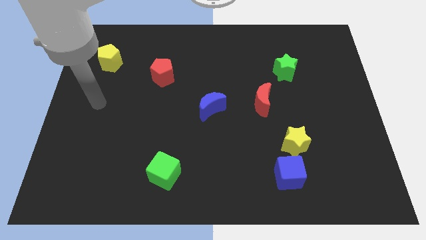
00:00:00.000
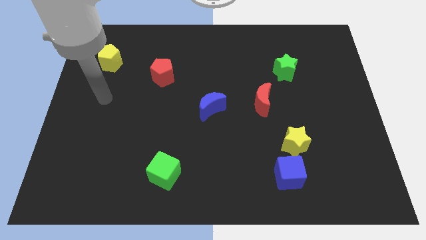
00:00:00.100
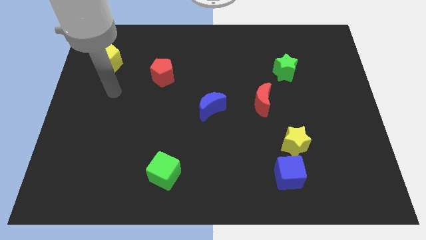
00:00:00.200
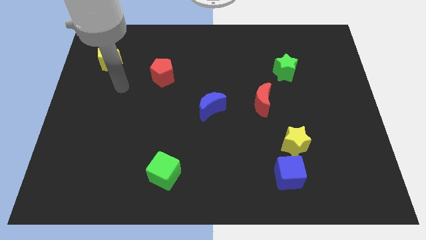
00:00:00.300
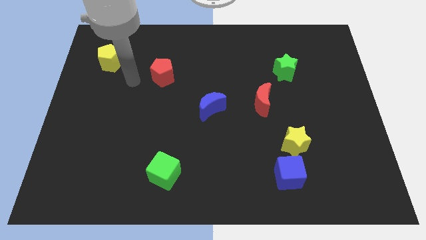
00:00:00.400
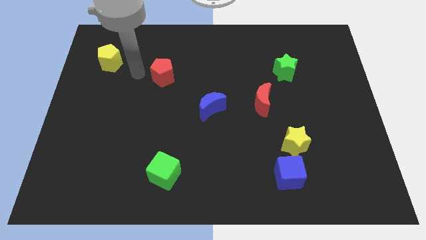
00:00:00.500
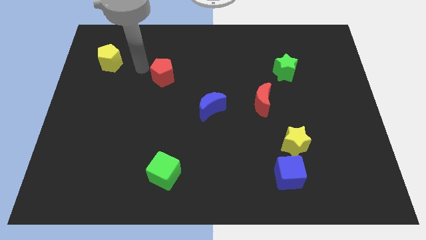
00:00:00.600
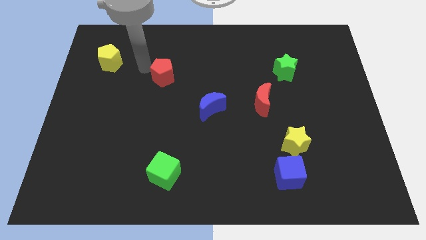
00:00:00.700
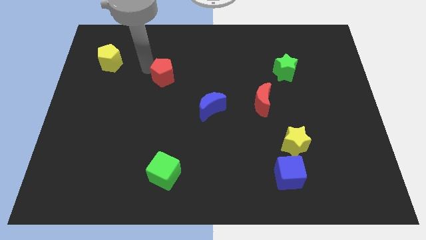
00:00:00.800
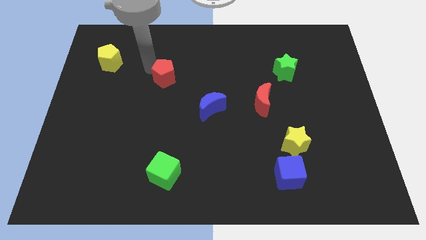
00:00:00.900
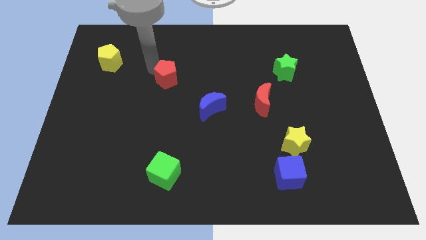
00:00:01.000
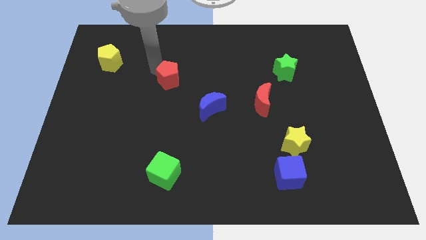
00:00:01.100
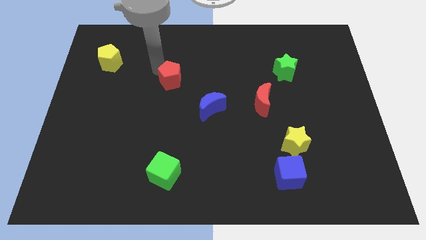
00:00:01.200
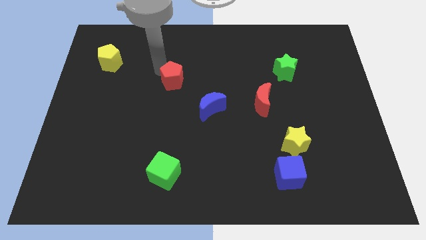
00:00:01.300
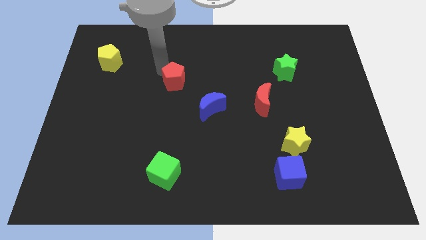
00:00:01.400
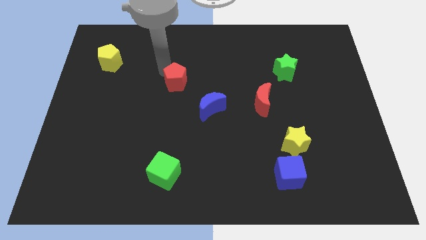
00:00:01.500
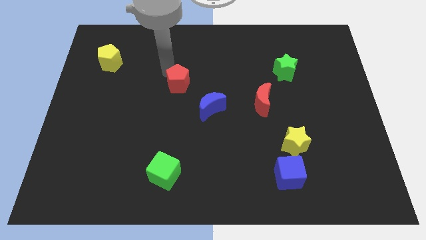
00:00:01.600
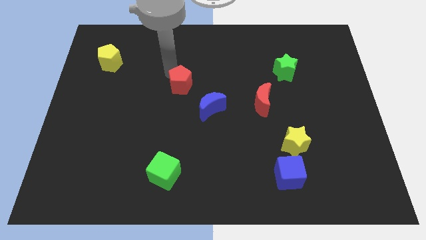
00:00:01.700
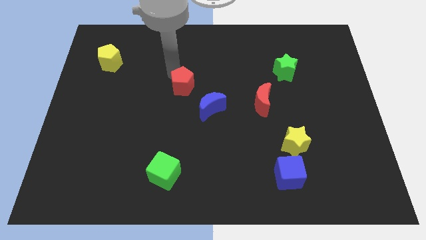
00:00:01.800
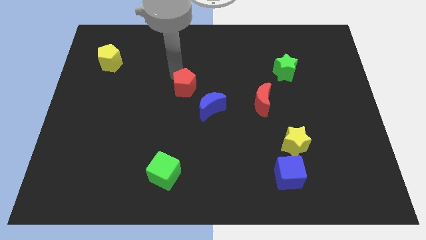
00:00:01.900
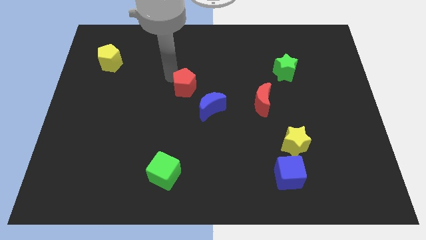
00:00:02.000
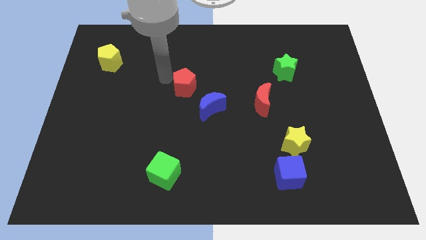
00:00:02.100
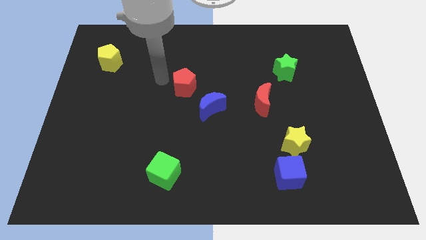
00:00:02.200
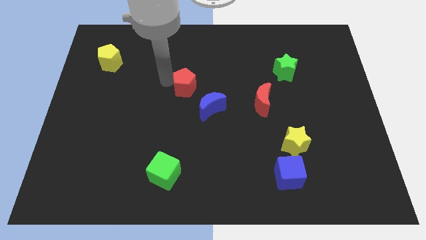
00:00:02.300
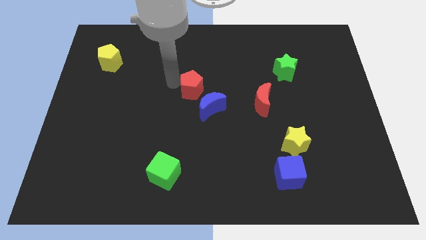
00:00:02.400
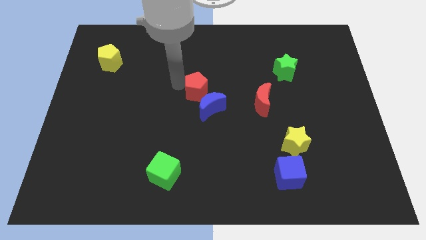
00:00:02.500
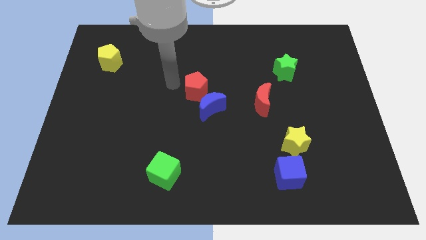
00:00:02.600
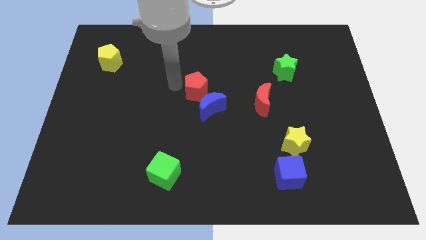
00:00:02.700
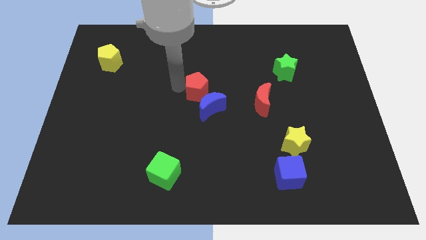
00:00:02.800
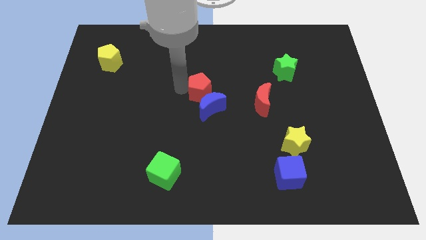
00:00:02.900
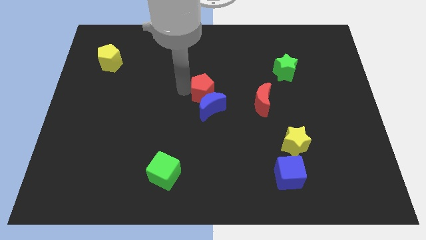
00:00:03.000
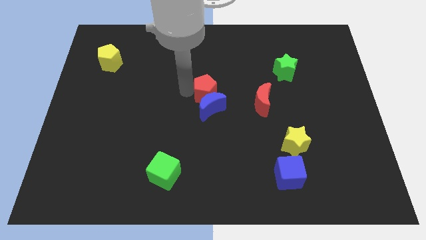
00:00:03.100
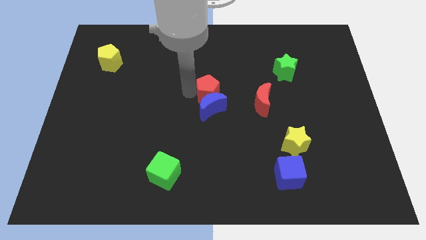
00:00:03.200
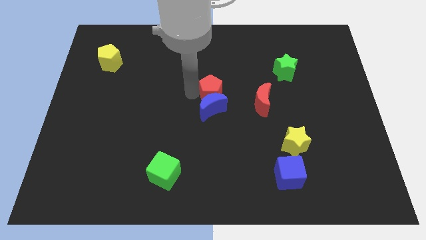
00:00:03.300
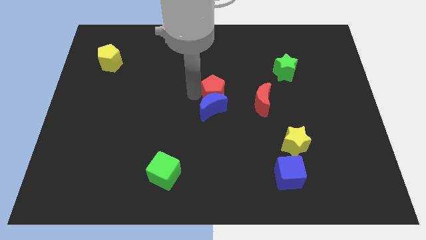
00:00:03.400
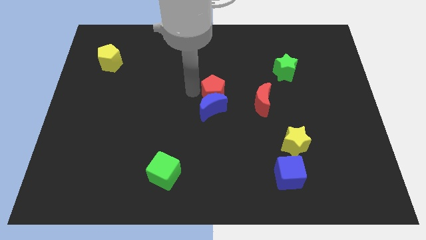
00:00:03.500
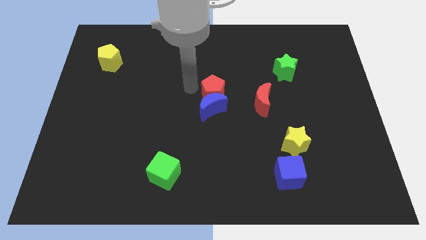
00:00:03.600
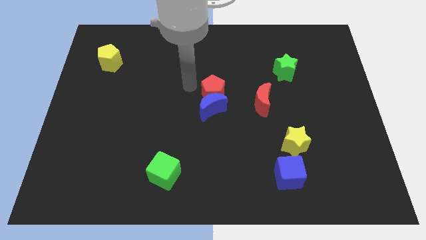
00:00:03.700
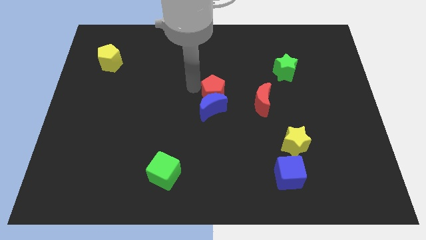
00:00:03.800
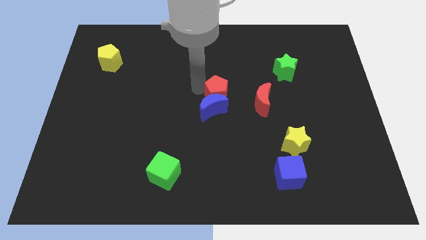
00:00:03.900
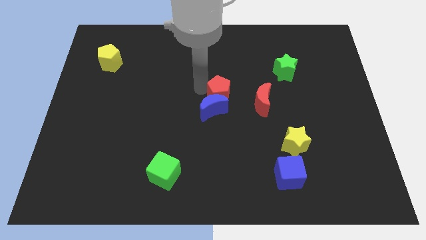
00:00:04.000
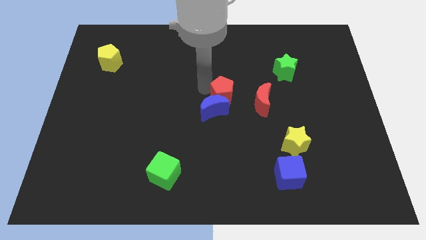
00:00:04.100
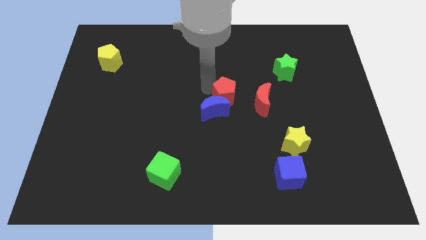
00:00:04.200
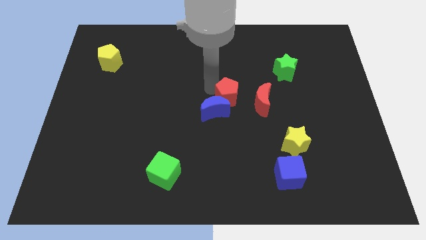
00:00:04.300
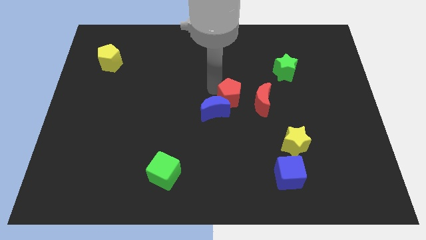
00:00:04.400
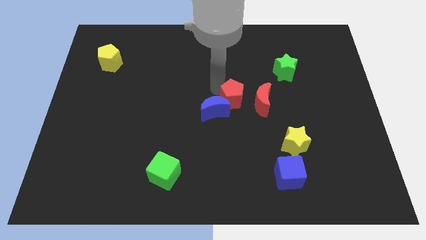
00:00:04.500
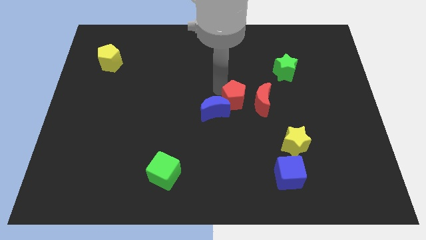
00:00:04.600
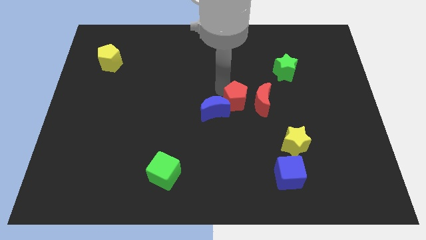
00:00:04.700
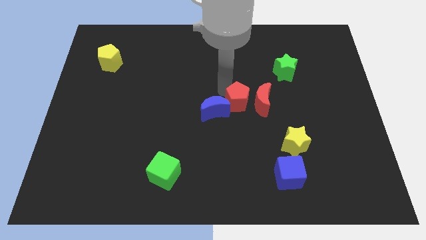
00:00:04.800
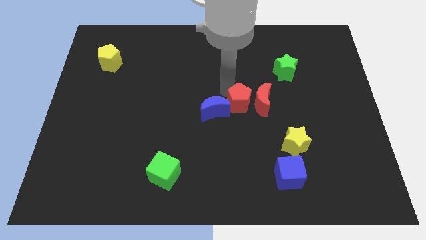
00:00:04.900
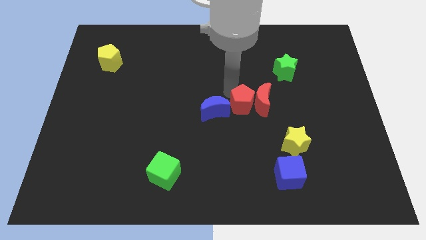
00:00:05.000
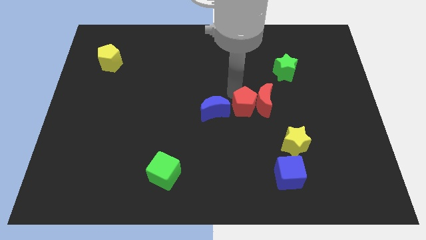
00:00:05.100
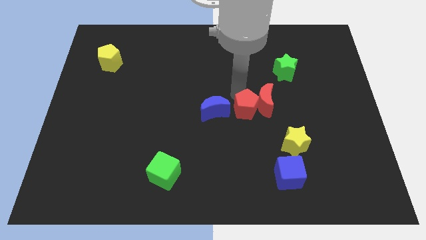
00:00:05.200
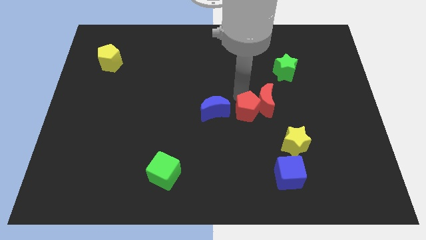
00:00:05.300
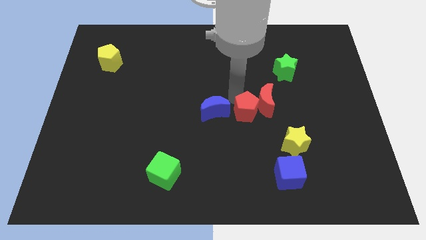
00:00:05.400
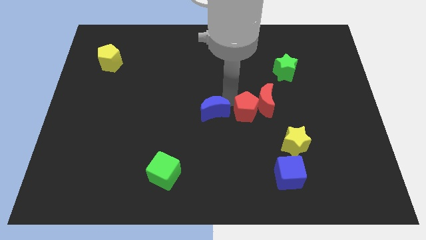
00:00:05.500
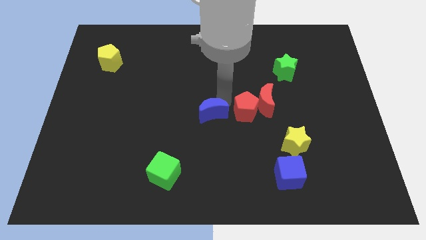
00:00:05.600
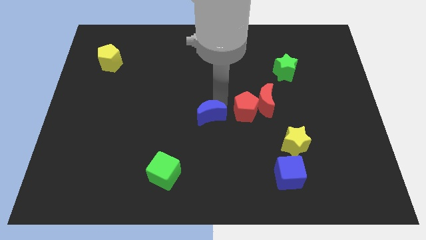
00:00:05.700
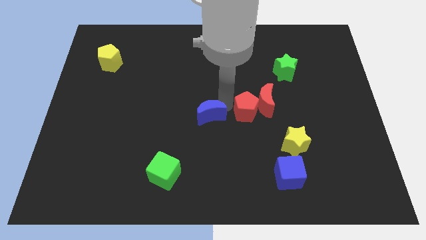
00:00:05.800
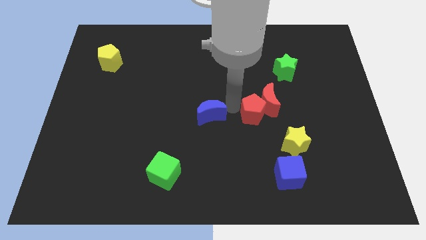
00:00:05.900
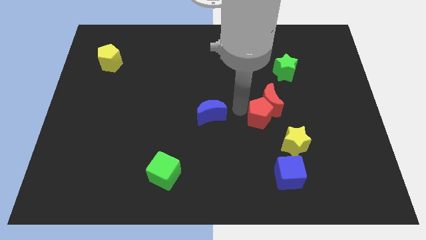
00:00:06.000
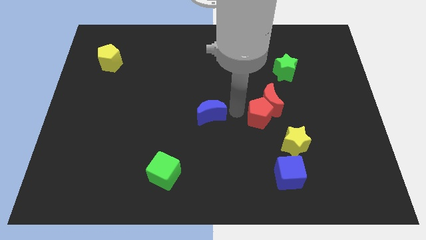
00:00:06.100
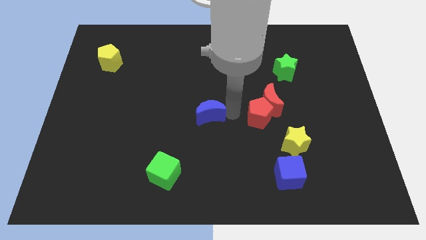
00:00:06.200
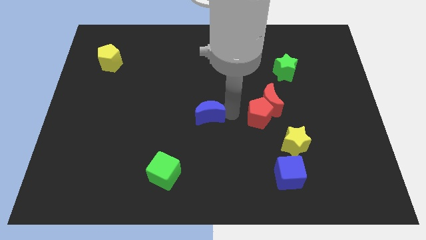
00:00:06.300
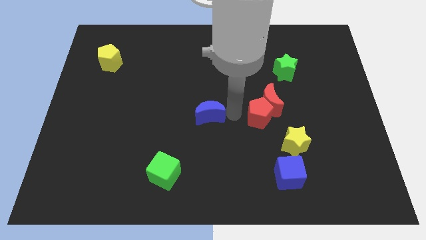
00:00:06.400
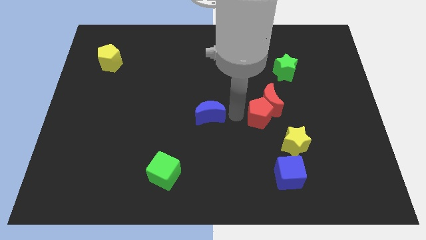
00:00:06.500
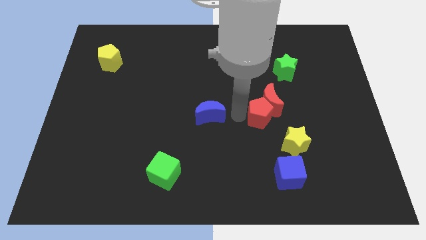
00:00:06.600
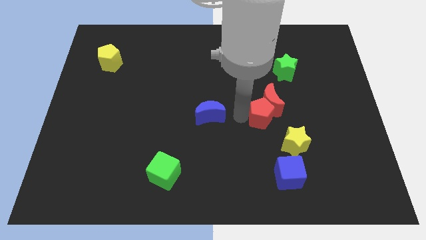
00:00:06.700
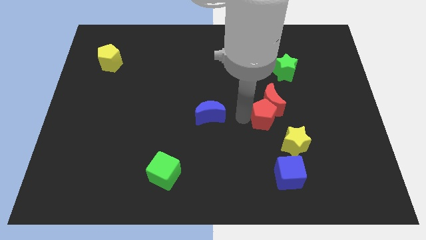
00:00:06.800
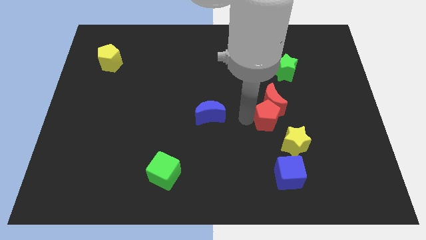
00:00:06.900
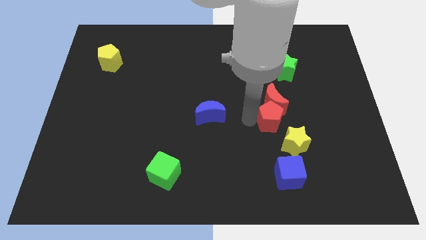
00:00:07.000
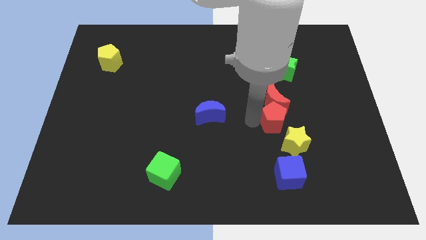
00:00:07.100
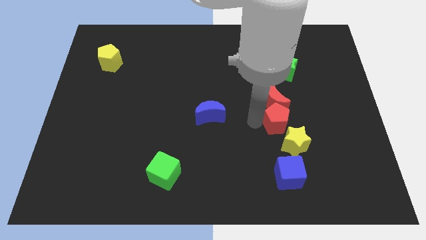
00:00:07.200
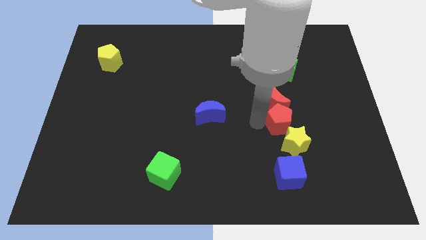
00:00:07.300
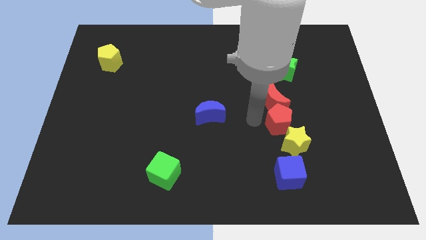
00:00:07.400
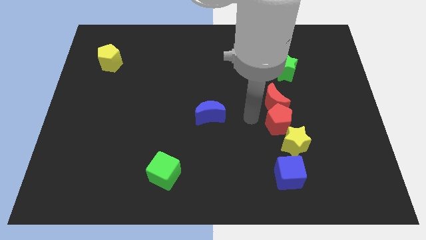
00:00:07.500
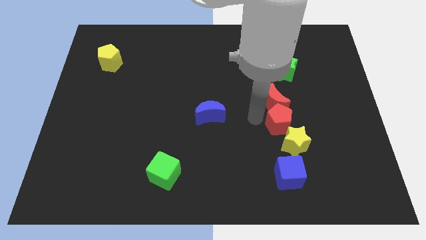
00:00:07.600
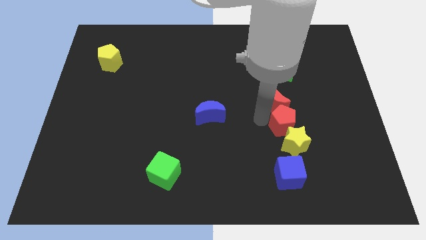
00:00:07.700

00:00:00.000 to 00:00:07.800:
push the red pentagon to the top right side of the yellow star
